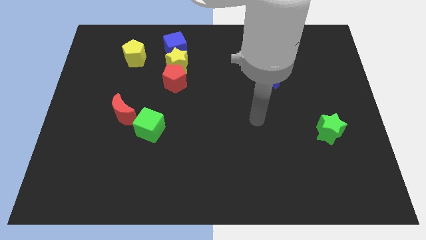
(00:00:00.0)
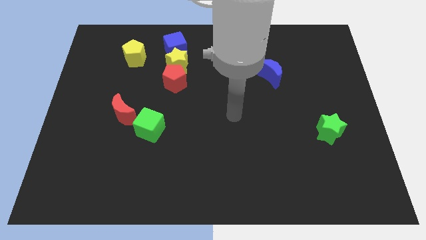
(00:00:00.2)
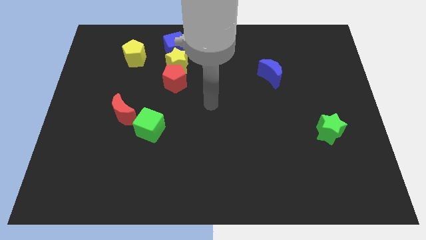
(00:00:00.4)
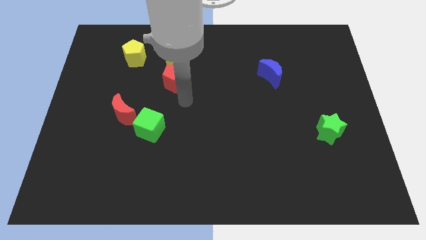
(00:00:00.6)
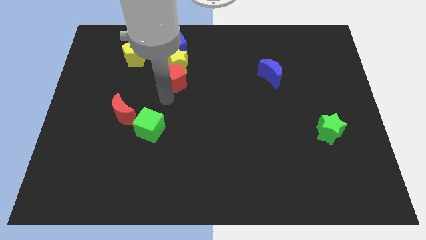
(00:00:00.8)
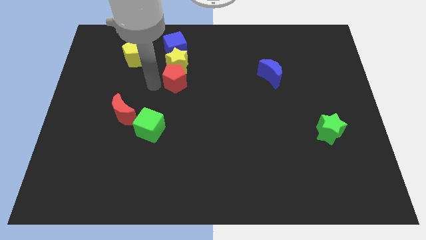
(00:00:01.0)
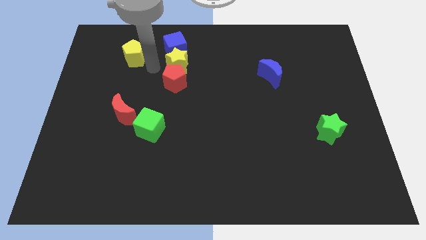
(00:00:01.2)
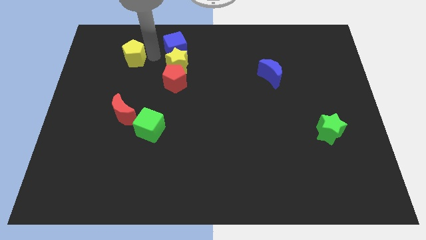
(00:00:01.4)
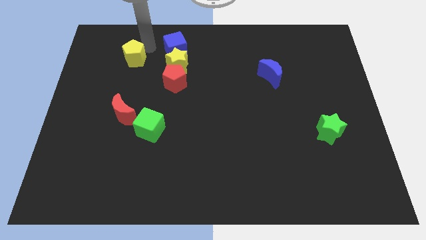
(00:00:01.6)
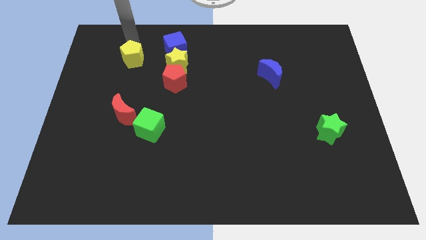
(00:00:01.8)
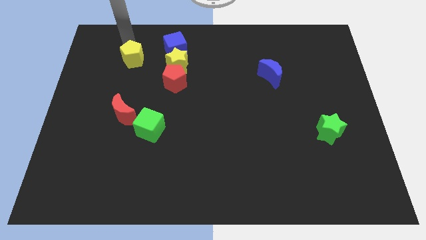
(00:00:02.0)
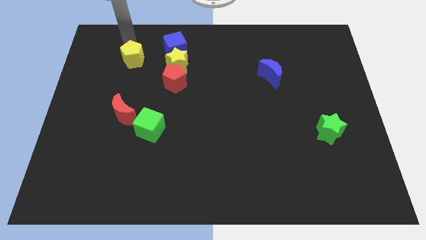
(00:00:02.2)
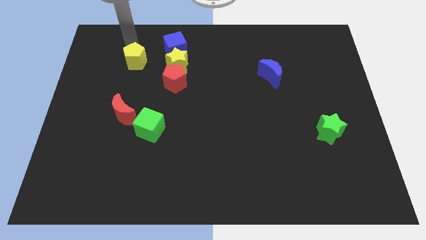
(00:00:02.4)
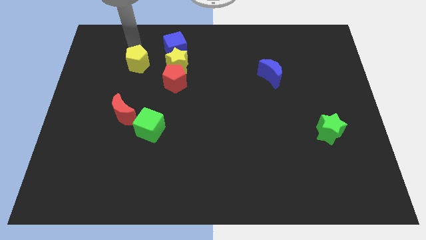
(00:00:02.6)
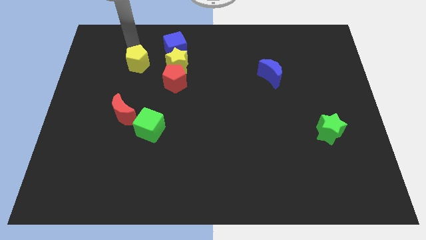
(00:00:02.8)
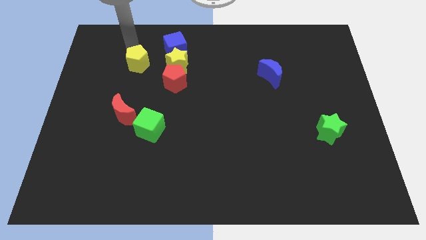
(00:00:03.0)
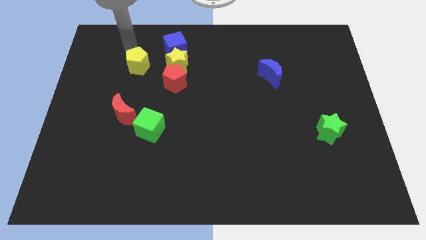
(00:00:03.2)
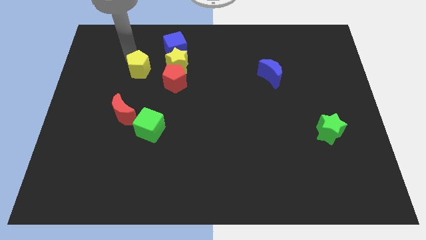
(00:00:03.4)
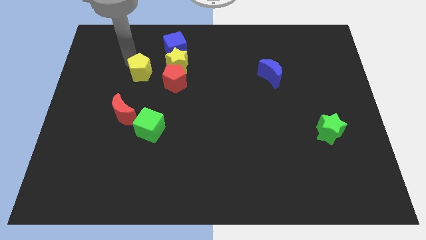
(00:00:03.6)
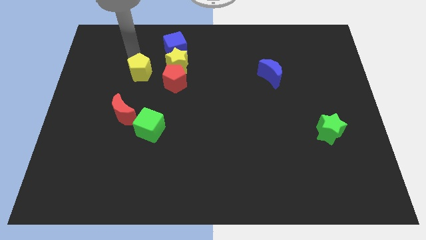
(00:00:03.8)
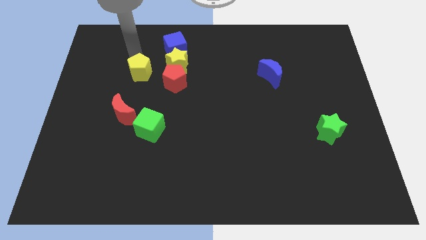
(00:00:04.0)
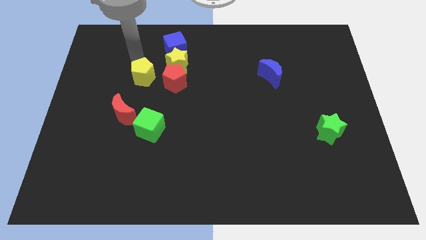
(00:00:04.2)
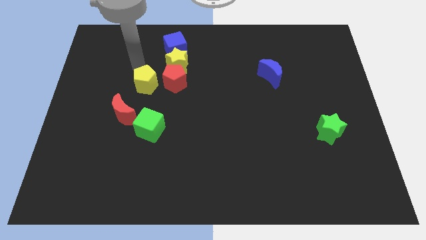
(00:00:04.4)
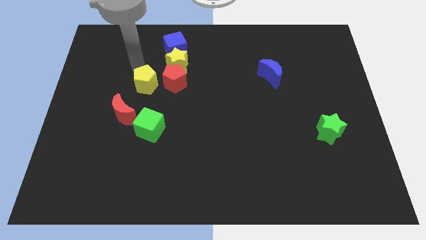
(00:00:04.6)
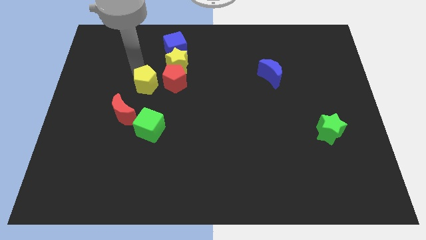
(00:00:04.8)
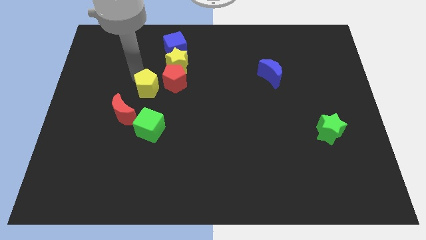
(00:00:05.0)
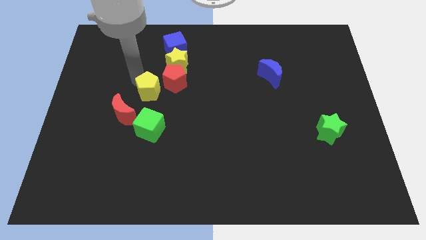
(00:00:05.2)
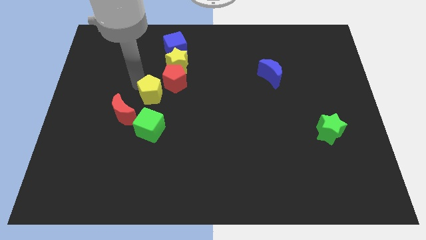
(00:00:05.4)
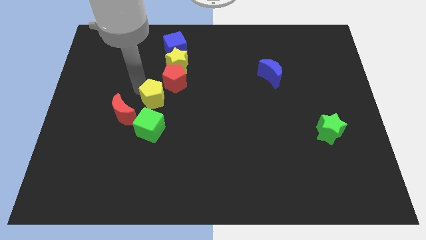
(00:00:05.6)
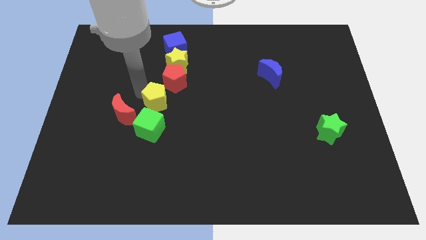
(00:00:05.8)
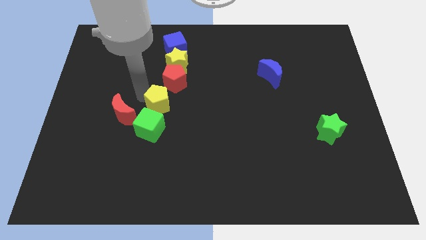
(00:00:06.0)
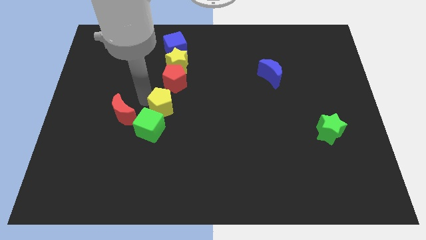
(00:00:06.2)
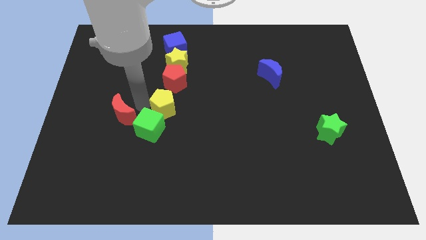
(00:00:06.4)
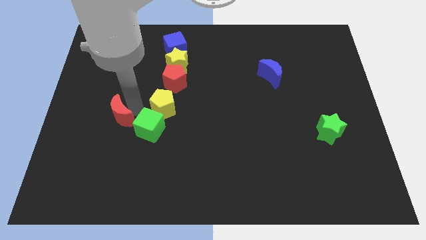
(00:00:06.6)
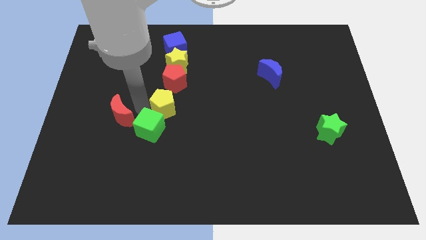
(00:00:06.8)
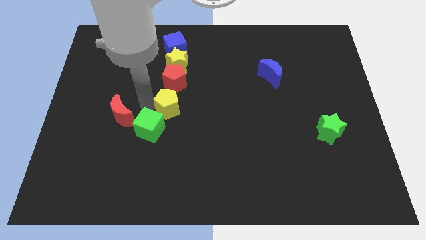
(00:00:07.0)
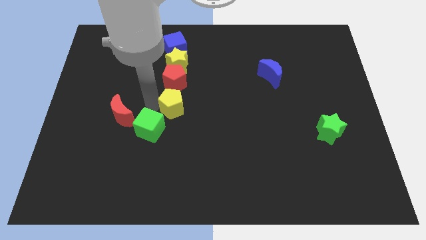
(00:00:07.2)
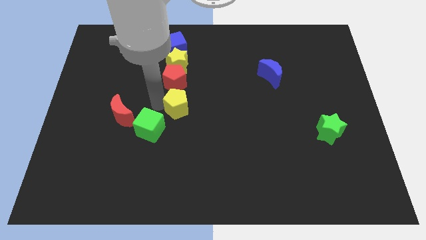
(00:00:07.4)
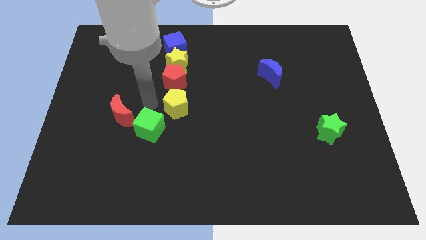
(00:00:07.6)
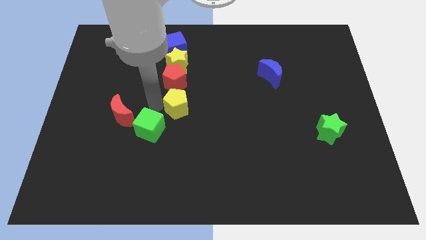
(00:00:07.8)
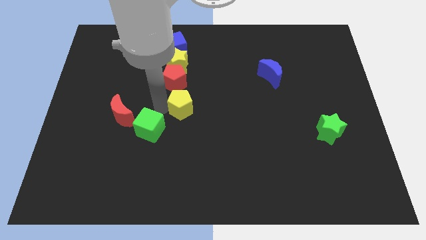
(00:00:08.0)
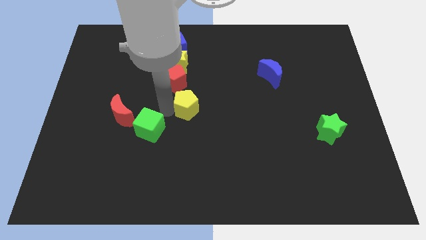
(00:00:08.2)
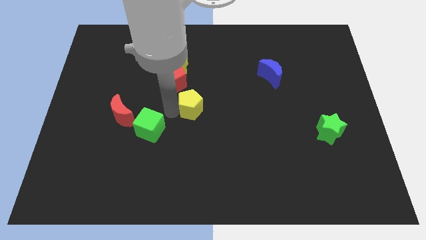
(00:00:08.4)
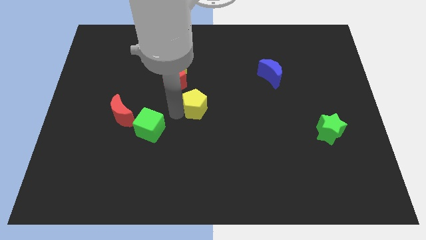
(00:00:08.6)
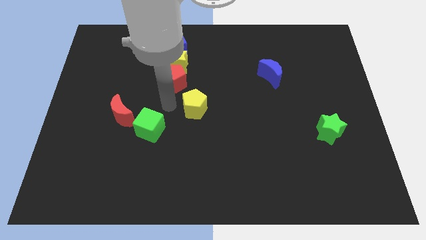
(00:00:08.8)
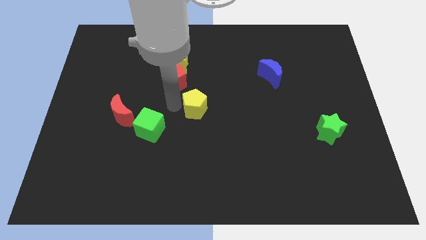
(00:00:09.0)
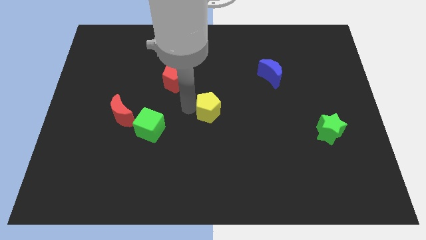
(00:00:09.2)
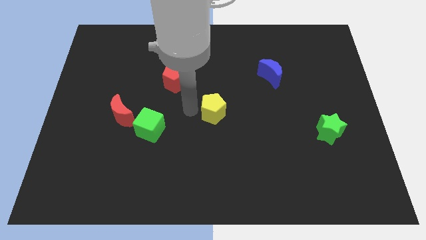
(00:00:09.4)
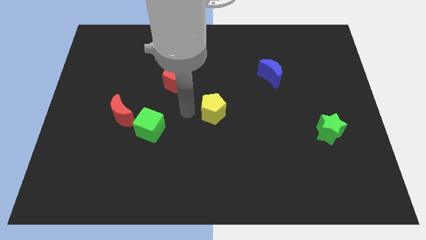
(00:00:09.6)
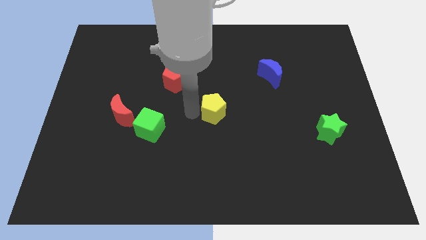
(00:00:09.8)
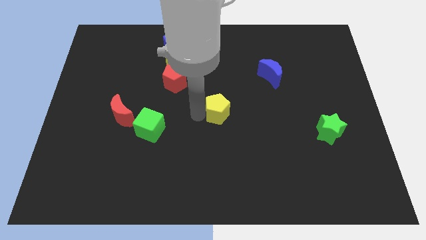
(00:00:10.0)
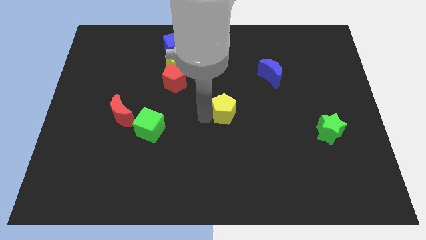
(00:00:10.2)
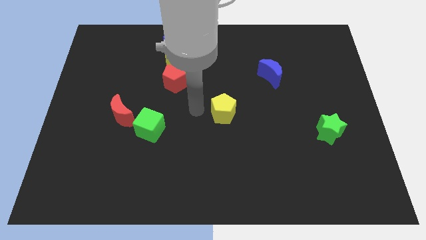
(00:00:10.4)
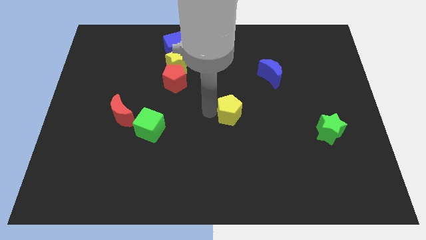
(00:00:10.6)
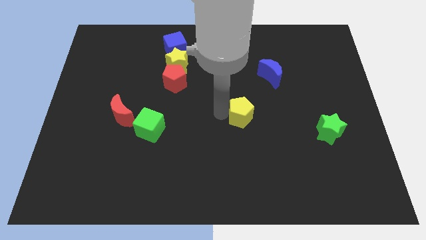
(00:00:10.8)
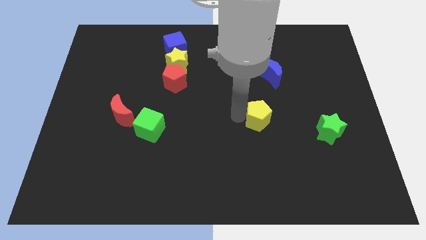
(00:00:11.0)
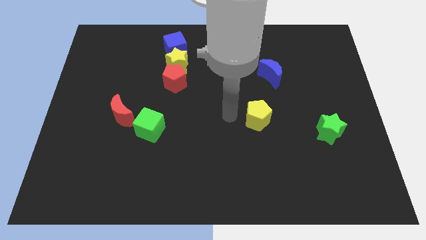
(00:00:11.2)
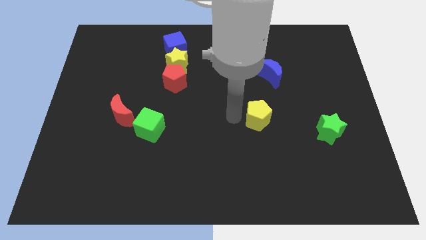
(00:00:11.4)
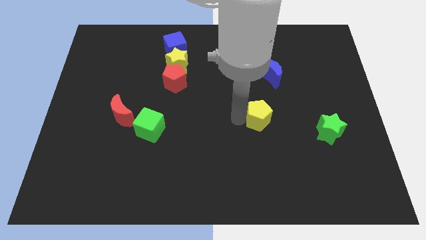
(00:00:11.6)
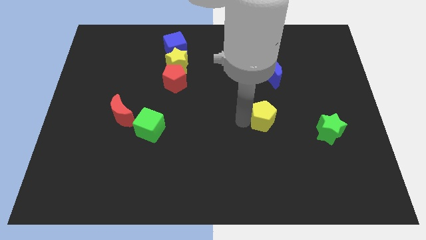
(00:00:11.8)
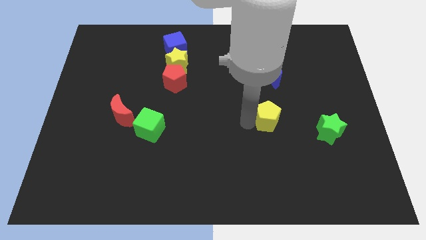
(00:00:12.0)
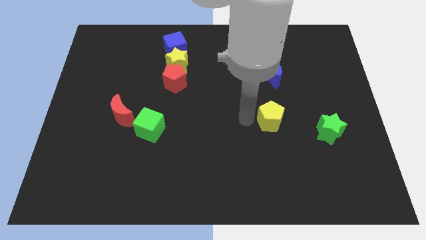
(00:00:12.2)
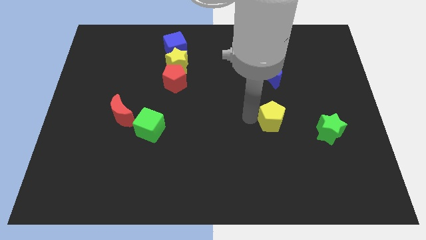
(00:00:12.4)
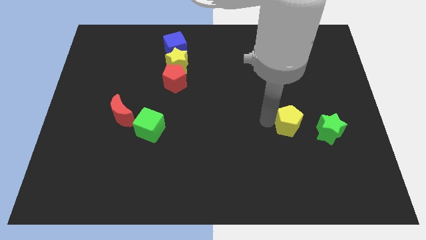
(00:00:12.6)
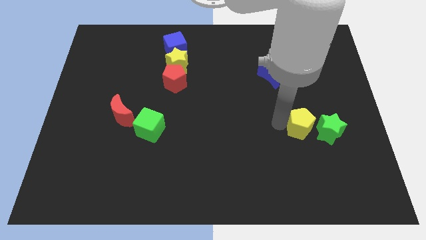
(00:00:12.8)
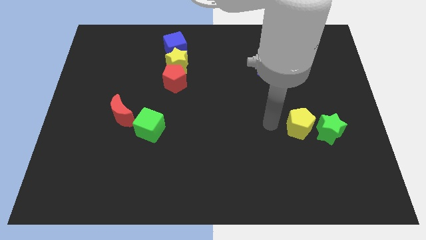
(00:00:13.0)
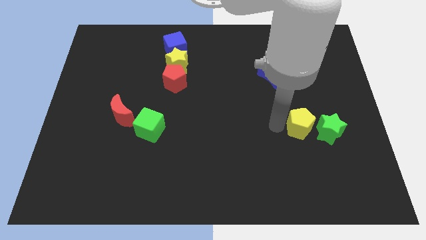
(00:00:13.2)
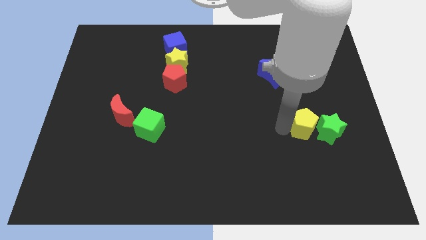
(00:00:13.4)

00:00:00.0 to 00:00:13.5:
push the yellow pentagon towards the green star

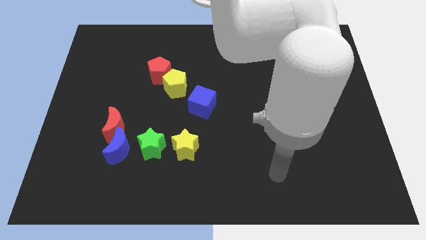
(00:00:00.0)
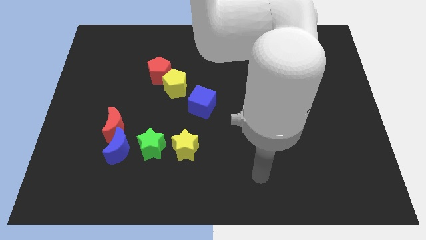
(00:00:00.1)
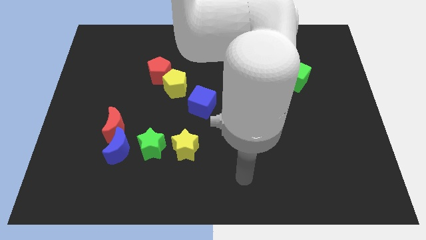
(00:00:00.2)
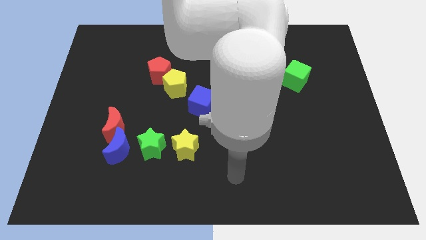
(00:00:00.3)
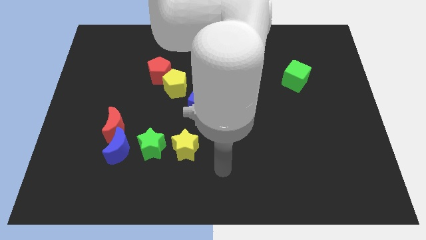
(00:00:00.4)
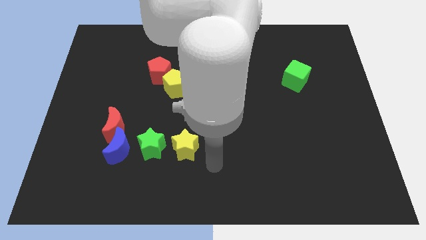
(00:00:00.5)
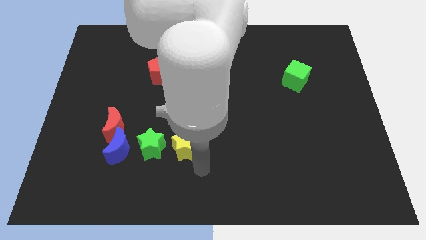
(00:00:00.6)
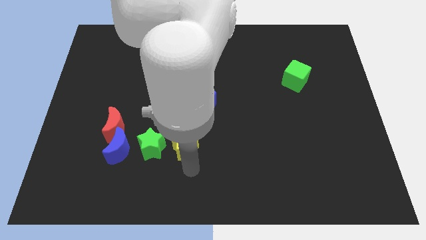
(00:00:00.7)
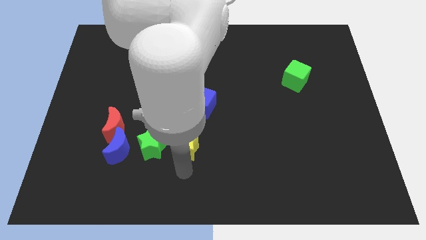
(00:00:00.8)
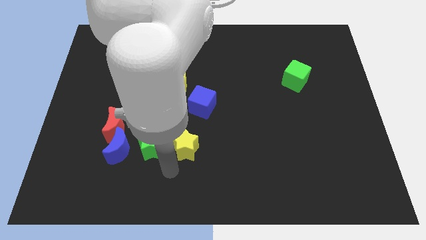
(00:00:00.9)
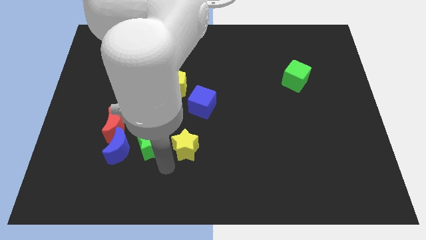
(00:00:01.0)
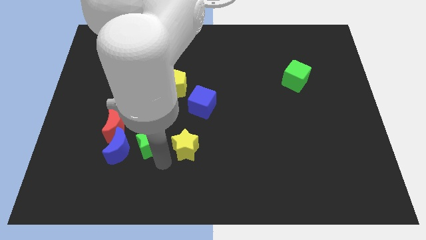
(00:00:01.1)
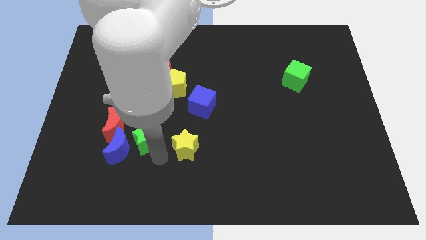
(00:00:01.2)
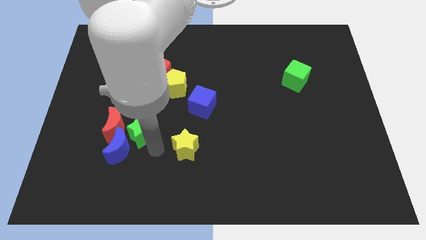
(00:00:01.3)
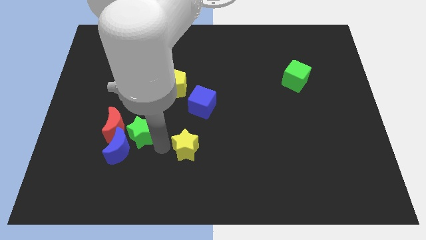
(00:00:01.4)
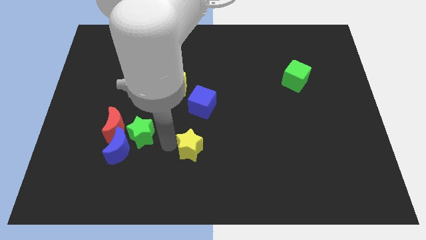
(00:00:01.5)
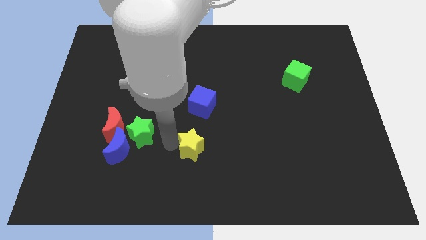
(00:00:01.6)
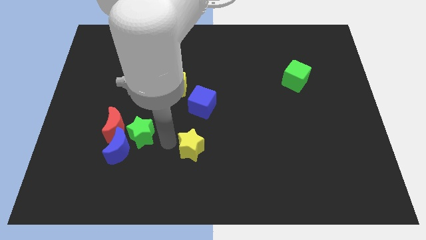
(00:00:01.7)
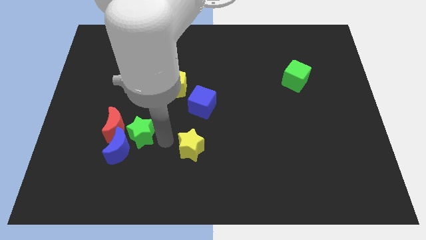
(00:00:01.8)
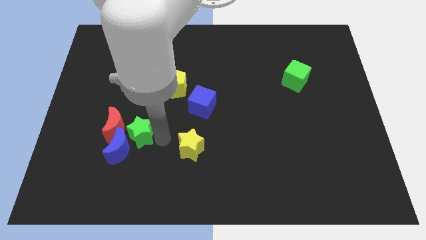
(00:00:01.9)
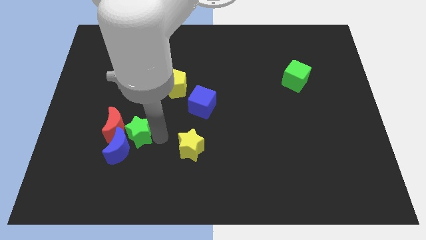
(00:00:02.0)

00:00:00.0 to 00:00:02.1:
push the green star next to the red moon
